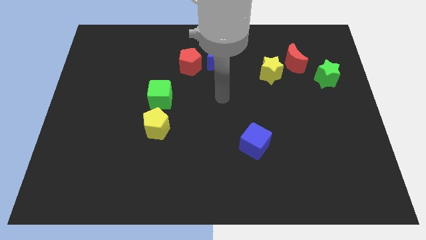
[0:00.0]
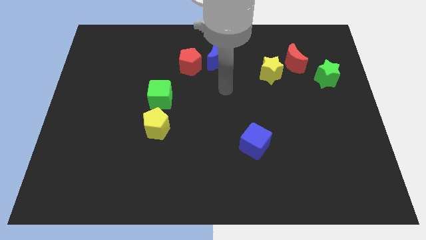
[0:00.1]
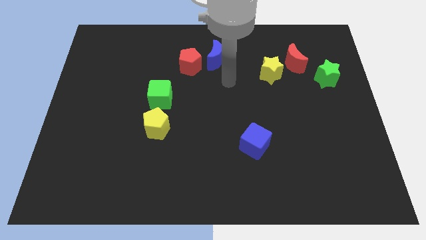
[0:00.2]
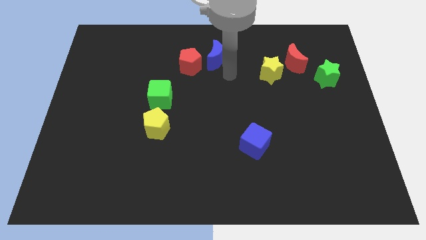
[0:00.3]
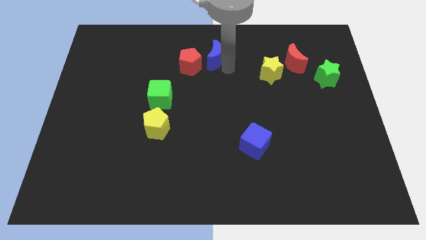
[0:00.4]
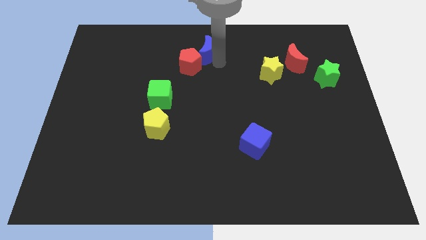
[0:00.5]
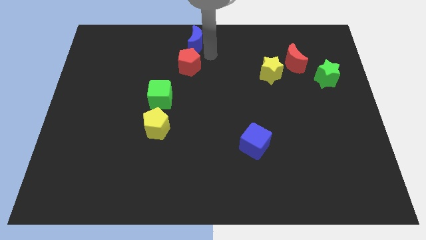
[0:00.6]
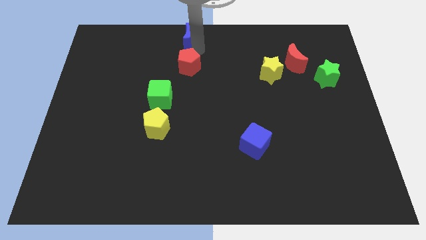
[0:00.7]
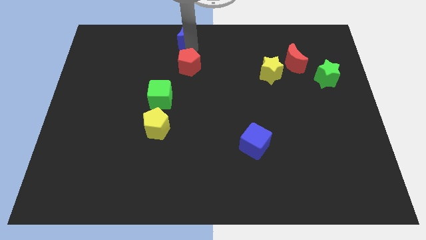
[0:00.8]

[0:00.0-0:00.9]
separate the red pentagon from the blue moon

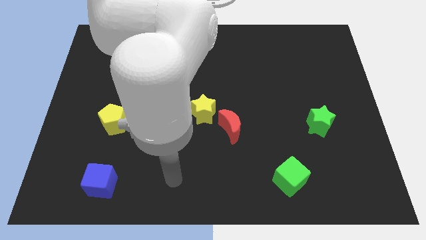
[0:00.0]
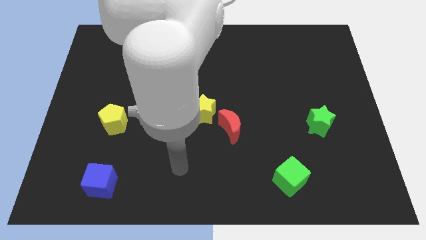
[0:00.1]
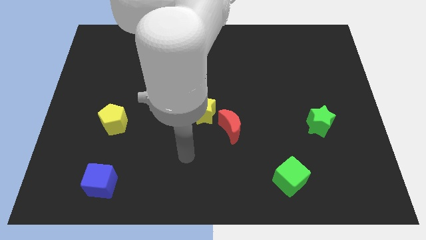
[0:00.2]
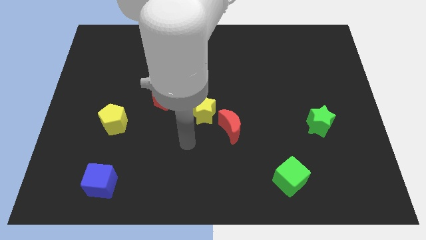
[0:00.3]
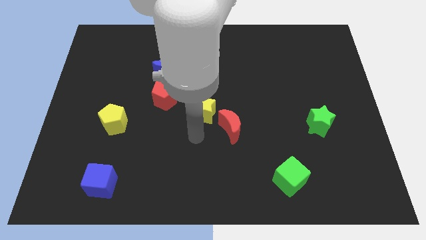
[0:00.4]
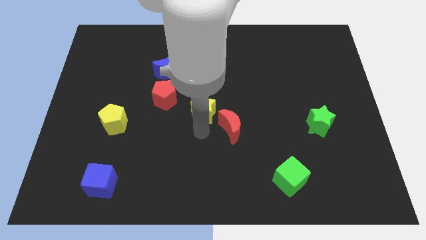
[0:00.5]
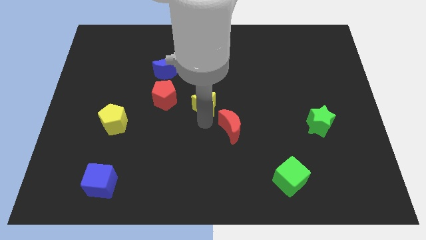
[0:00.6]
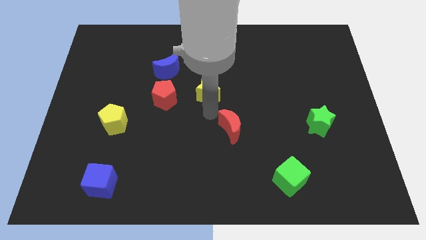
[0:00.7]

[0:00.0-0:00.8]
move the red moon away from the yellow star

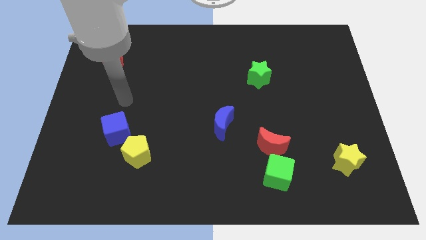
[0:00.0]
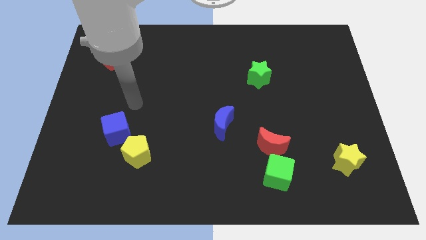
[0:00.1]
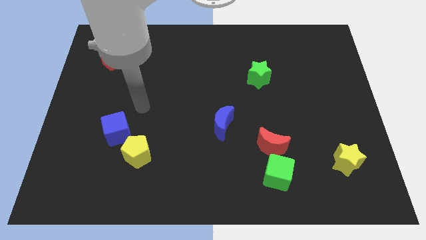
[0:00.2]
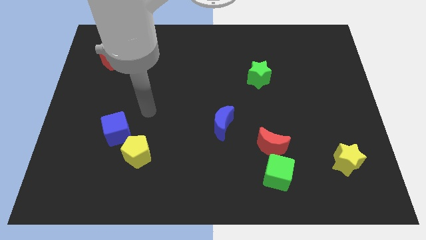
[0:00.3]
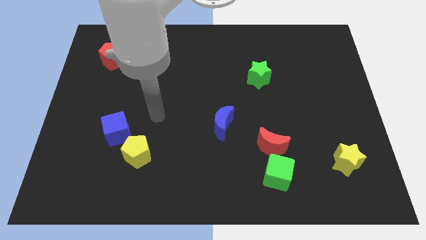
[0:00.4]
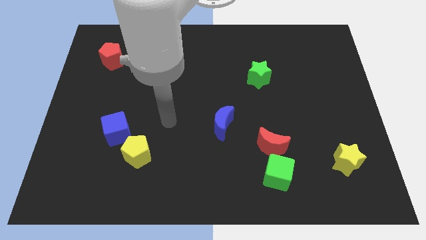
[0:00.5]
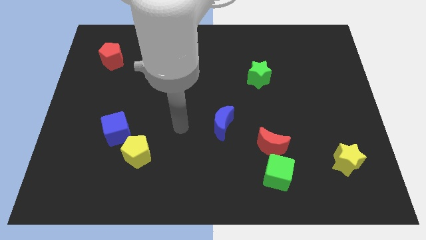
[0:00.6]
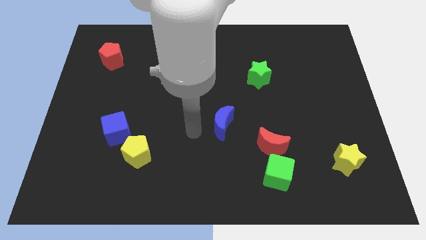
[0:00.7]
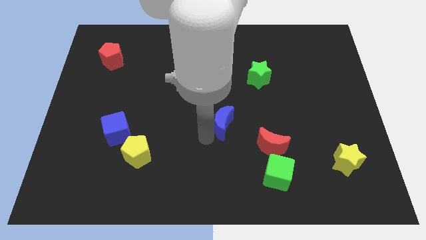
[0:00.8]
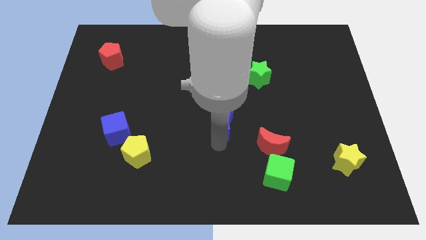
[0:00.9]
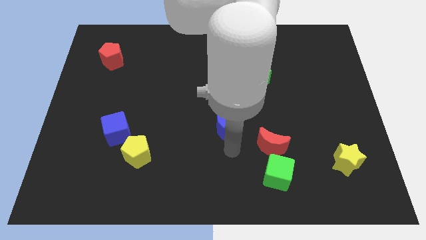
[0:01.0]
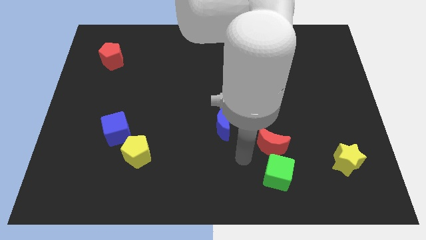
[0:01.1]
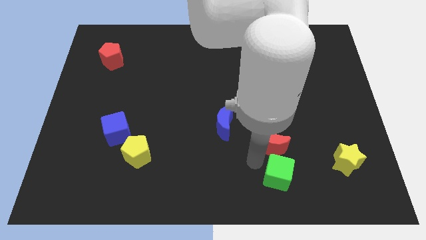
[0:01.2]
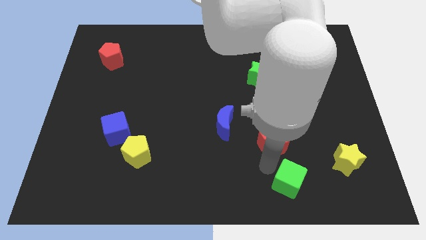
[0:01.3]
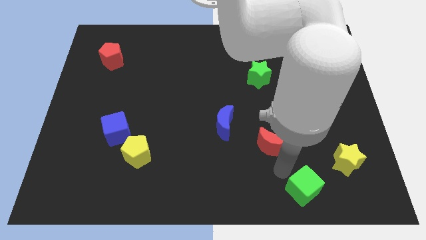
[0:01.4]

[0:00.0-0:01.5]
separate the red moon from the green cube

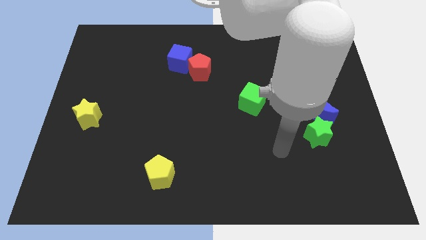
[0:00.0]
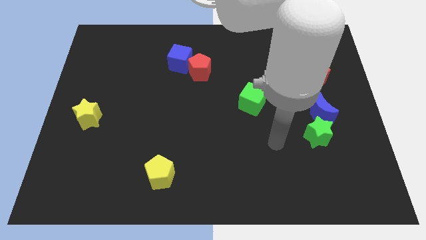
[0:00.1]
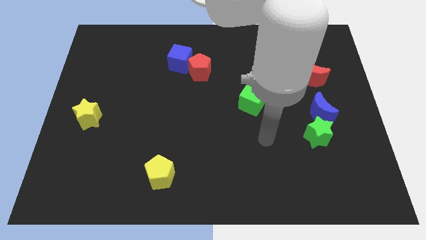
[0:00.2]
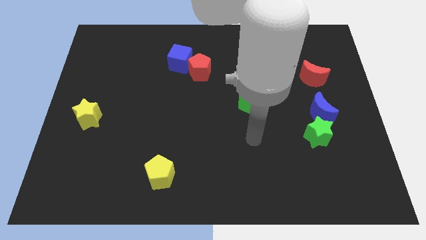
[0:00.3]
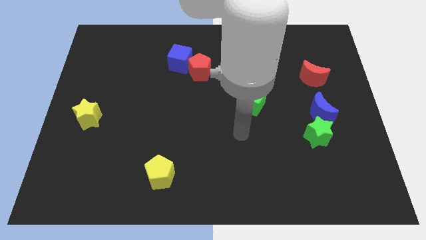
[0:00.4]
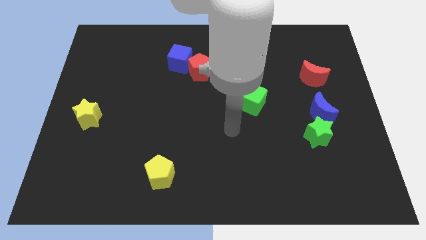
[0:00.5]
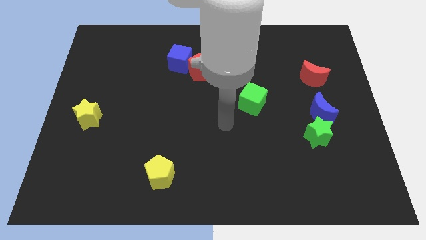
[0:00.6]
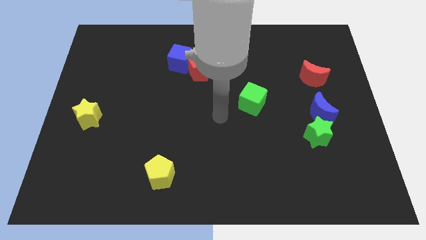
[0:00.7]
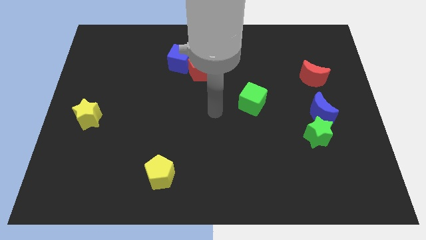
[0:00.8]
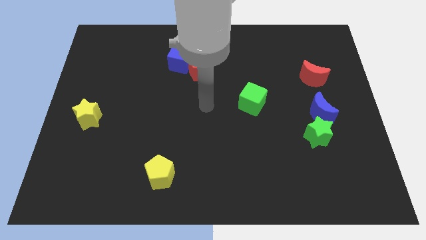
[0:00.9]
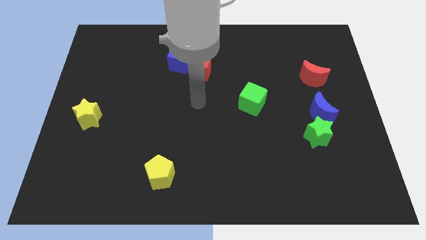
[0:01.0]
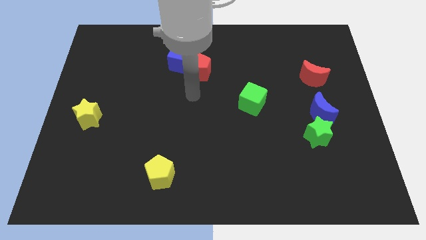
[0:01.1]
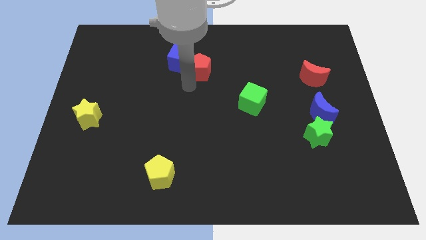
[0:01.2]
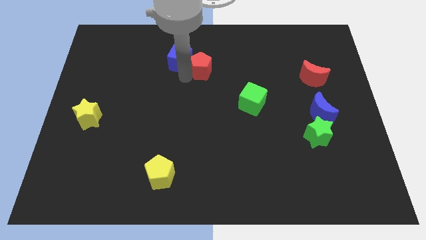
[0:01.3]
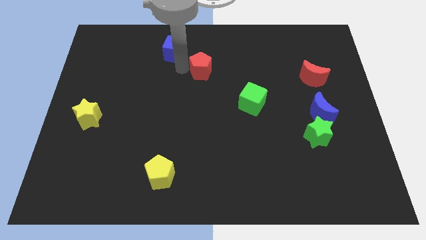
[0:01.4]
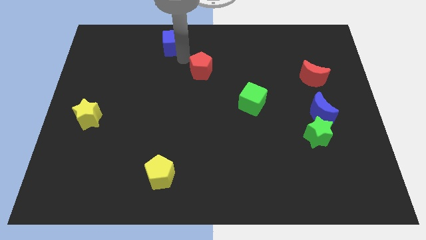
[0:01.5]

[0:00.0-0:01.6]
pull the red pentagon apart from the blue cube

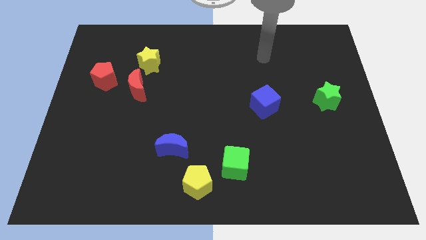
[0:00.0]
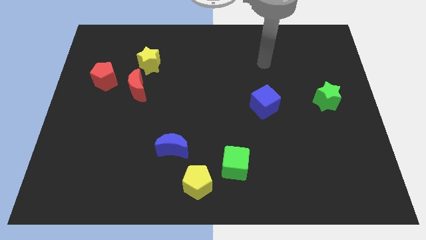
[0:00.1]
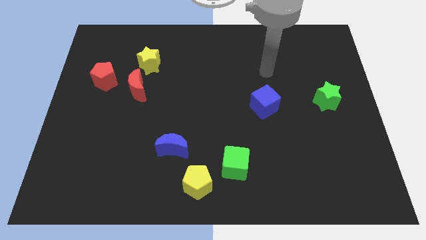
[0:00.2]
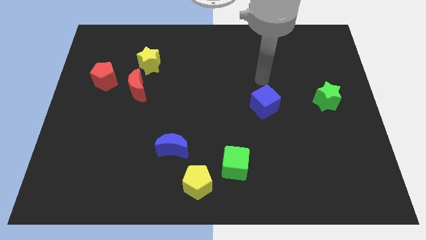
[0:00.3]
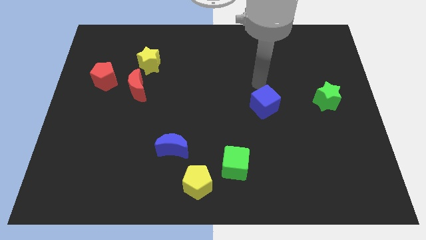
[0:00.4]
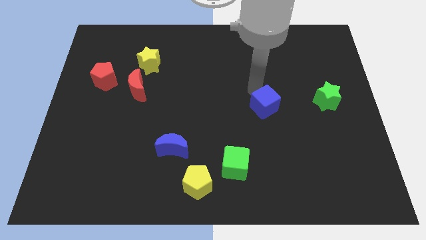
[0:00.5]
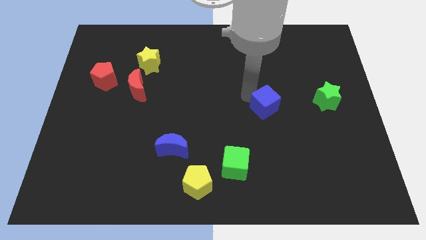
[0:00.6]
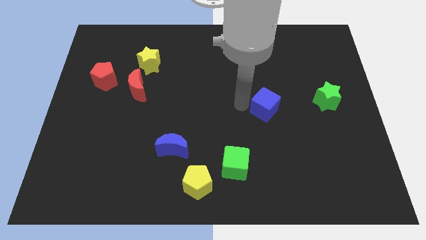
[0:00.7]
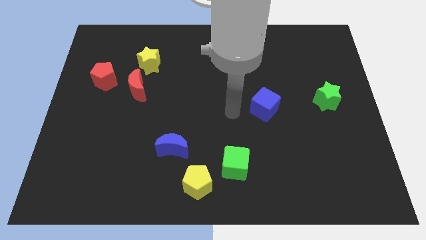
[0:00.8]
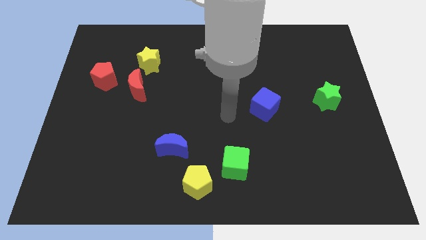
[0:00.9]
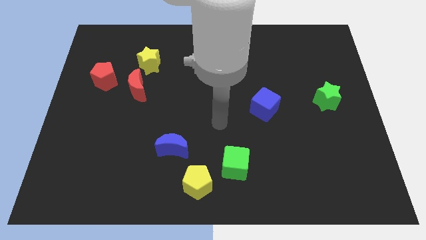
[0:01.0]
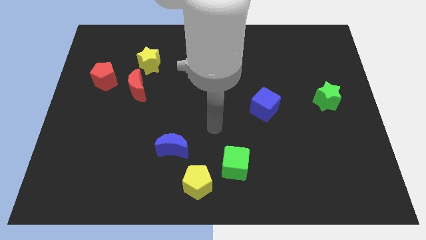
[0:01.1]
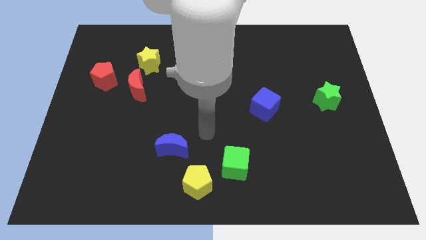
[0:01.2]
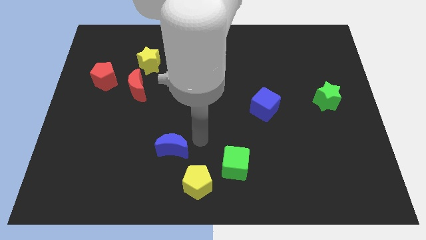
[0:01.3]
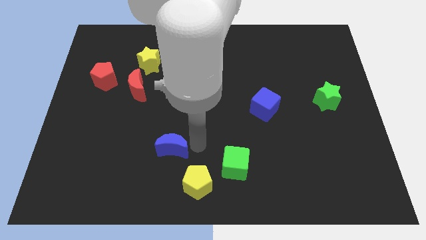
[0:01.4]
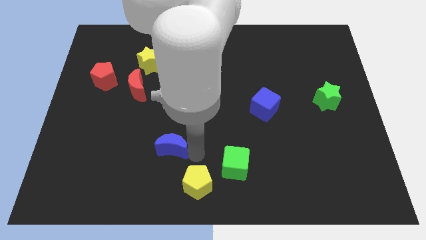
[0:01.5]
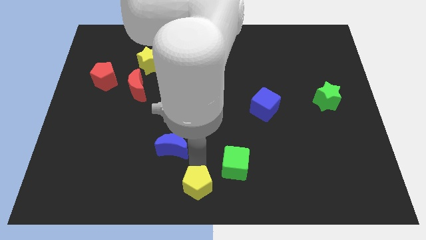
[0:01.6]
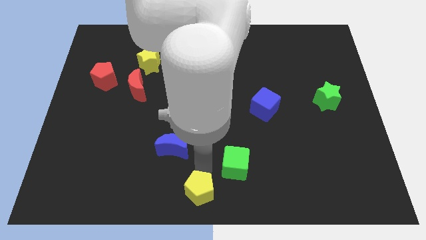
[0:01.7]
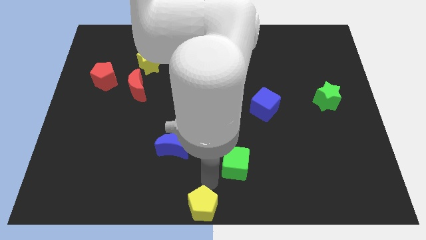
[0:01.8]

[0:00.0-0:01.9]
move the green cube away from the yellow pentagon

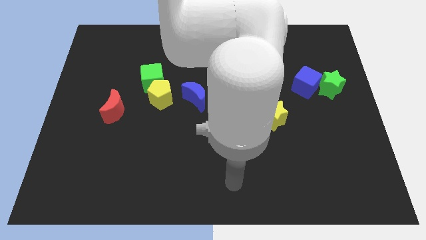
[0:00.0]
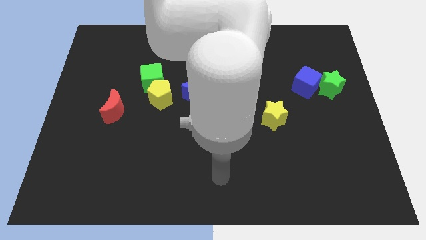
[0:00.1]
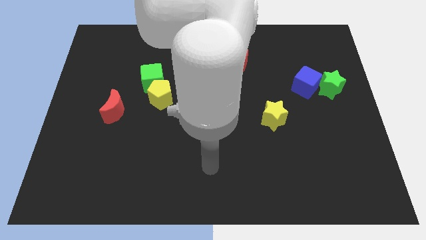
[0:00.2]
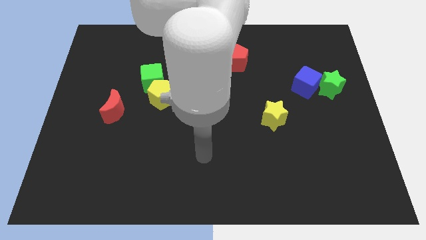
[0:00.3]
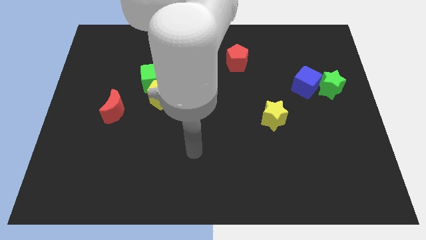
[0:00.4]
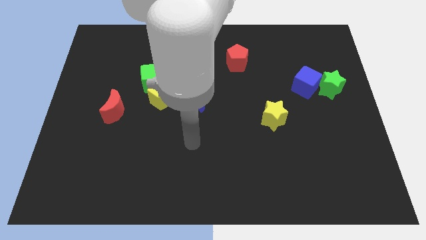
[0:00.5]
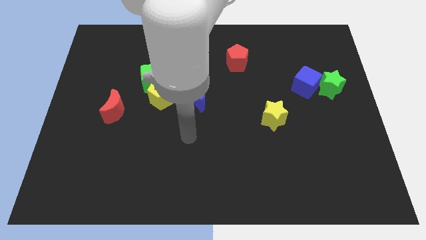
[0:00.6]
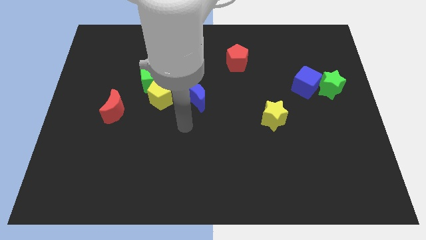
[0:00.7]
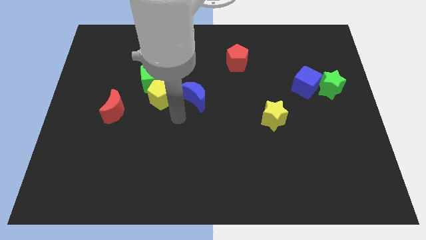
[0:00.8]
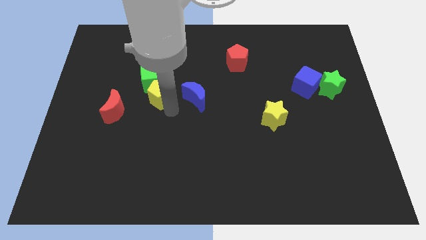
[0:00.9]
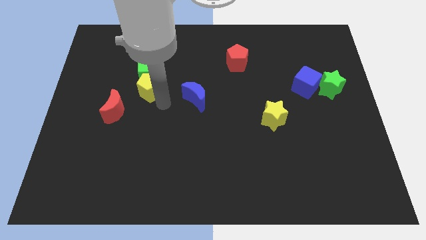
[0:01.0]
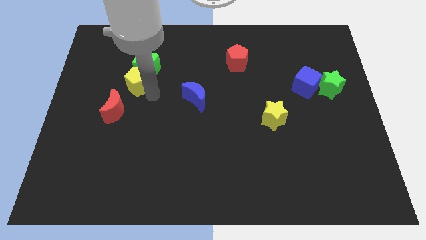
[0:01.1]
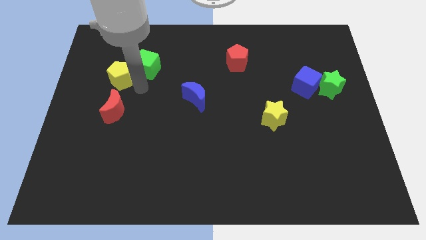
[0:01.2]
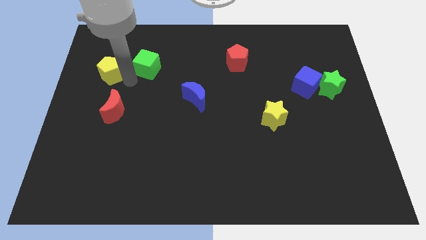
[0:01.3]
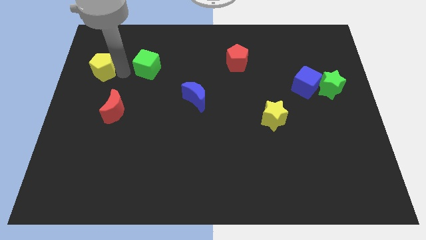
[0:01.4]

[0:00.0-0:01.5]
pull the green cube apart from the yellow pentagon

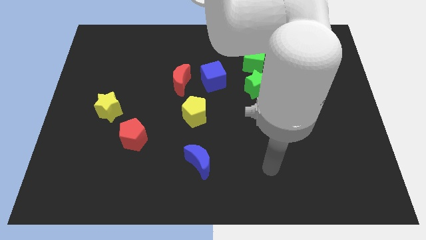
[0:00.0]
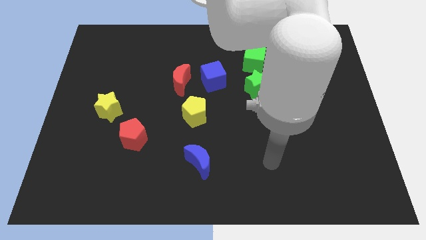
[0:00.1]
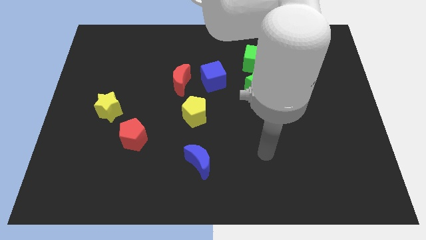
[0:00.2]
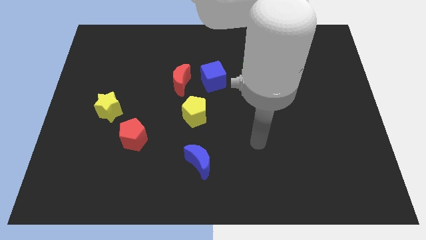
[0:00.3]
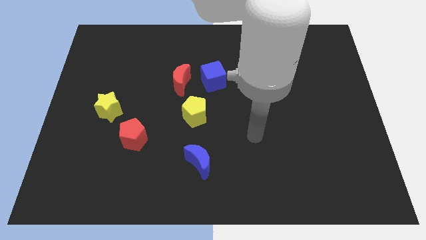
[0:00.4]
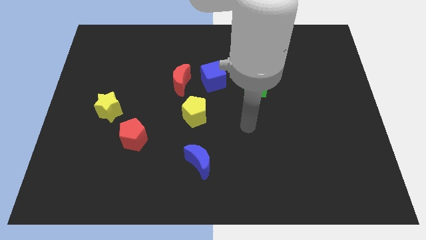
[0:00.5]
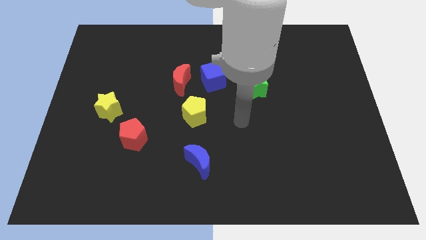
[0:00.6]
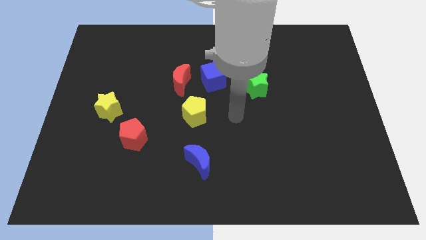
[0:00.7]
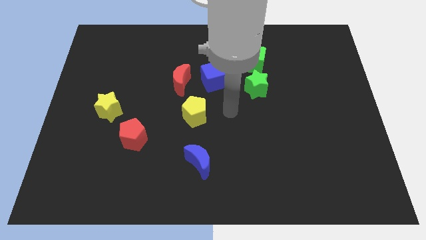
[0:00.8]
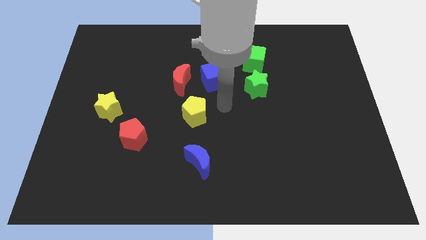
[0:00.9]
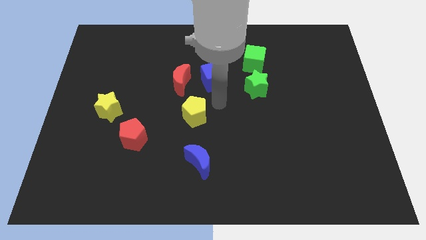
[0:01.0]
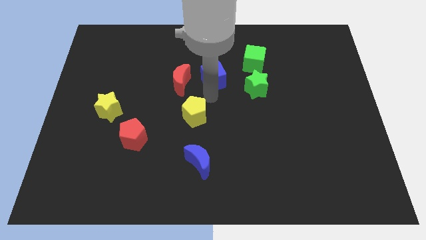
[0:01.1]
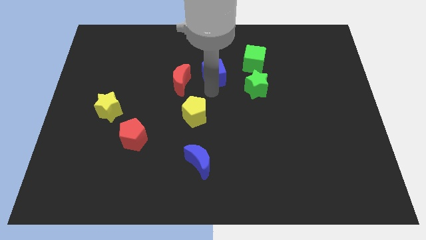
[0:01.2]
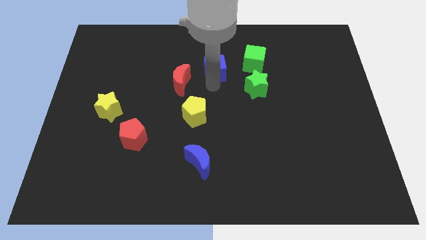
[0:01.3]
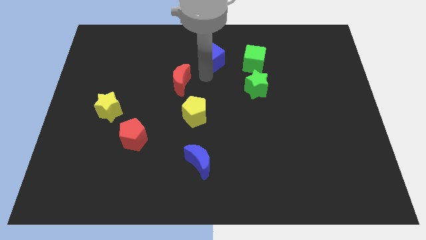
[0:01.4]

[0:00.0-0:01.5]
separate the red moon from the blue cube
